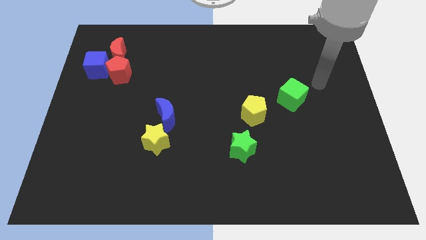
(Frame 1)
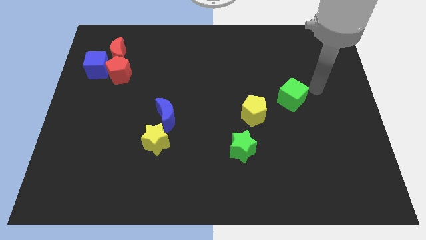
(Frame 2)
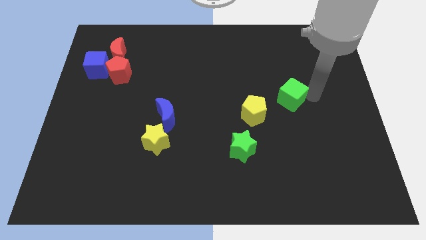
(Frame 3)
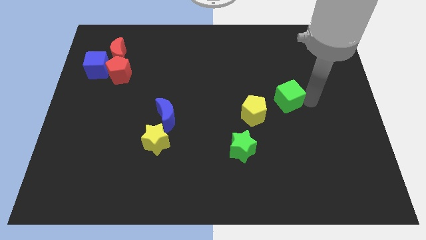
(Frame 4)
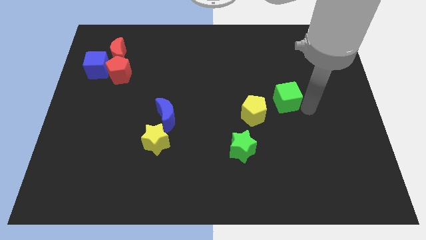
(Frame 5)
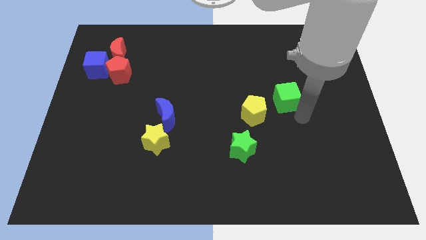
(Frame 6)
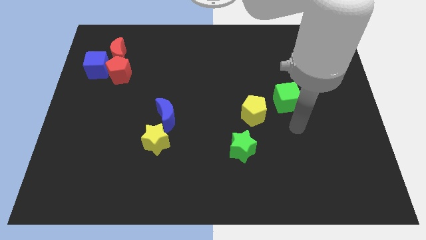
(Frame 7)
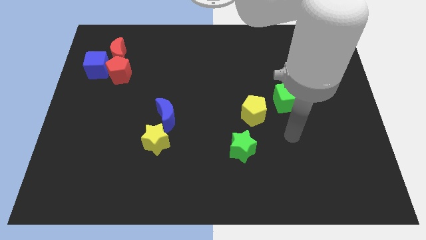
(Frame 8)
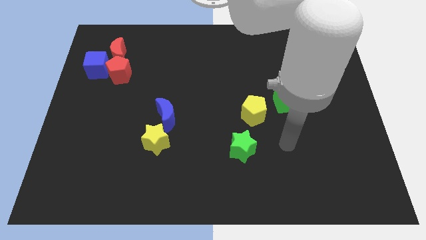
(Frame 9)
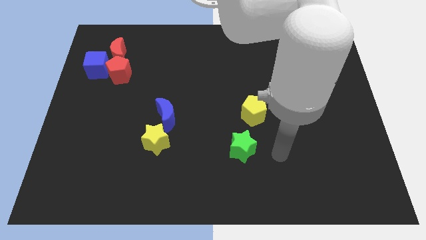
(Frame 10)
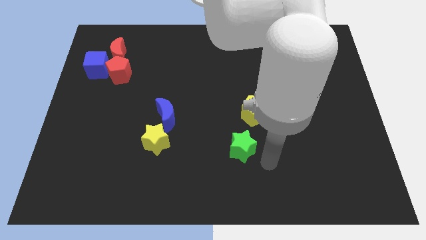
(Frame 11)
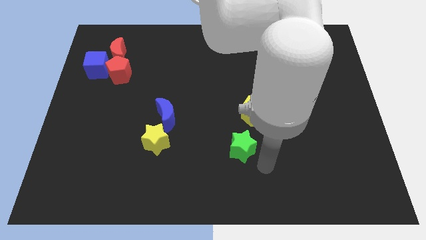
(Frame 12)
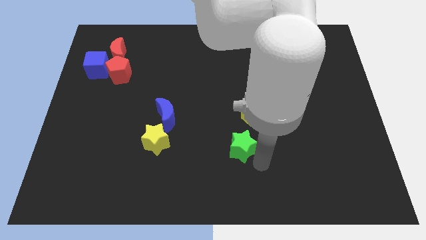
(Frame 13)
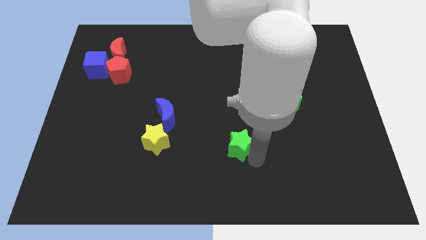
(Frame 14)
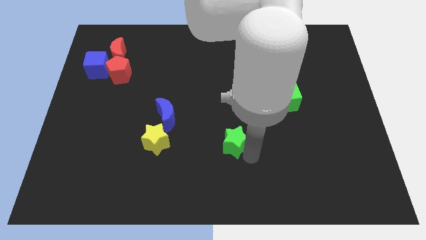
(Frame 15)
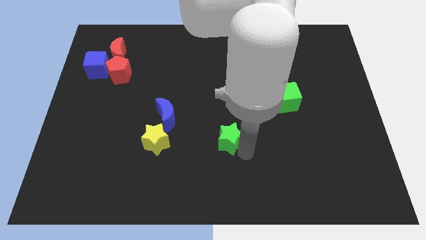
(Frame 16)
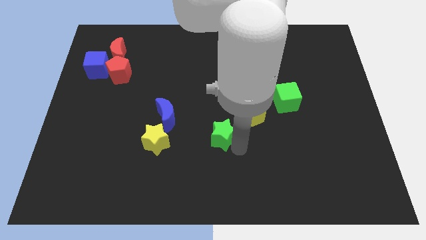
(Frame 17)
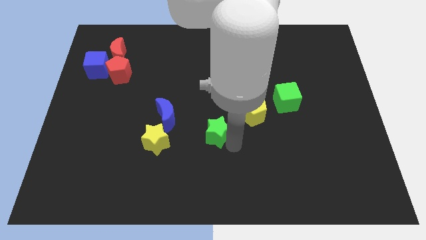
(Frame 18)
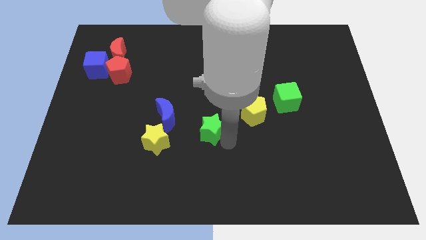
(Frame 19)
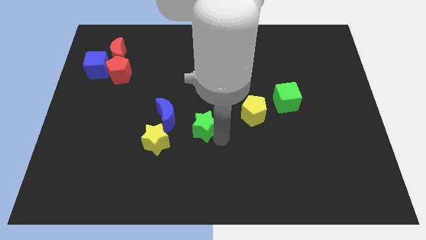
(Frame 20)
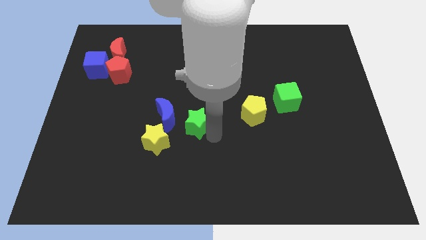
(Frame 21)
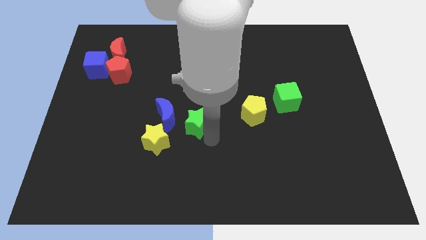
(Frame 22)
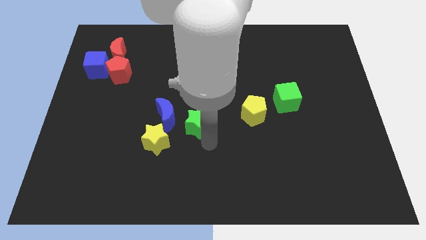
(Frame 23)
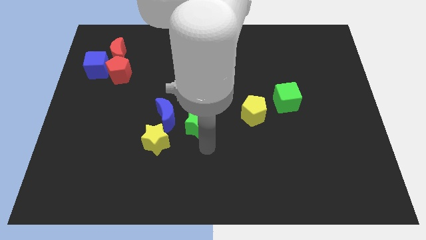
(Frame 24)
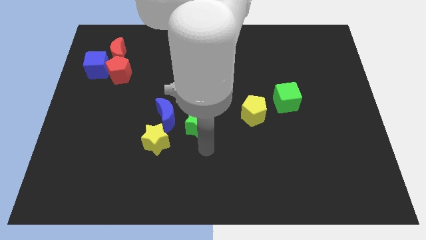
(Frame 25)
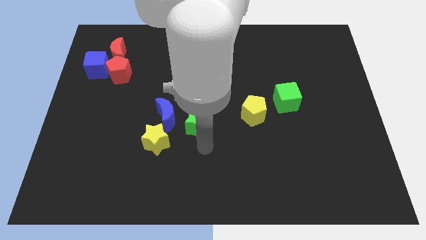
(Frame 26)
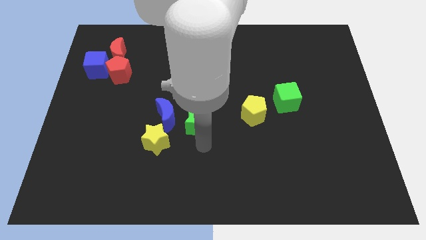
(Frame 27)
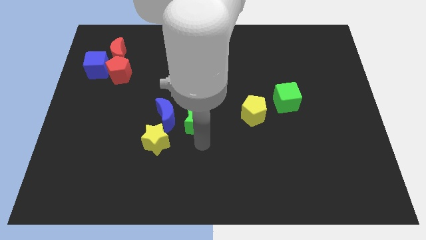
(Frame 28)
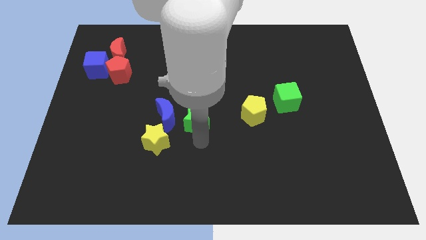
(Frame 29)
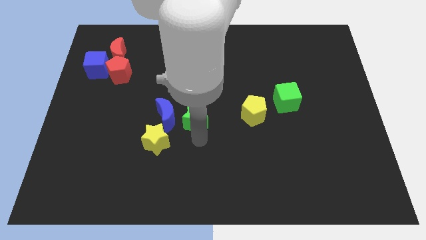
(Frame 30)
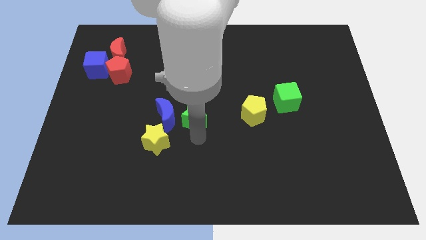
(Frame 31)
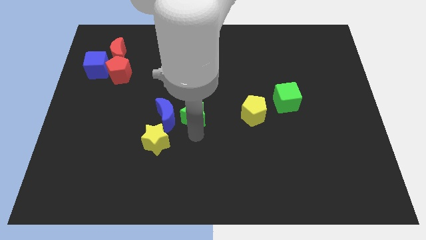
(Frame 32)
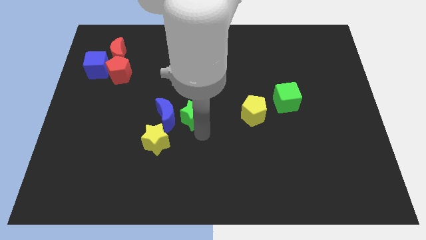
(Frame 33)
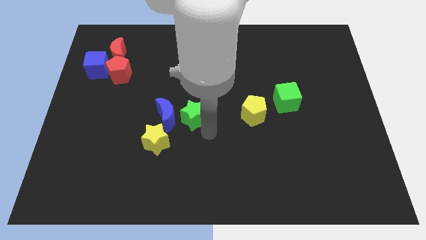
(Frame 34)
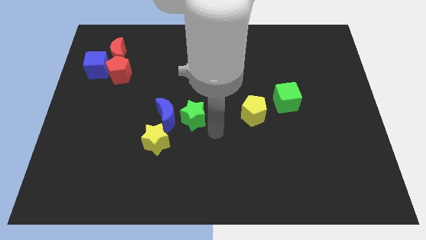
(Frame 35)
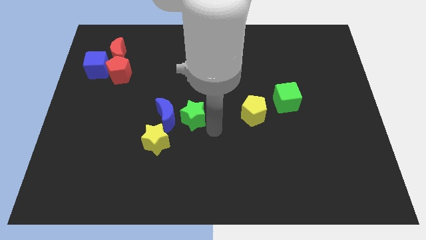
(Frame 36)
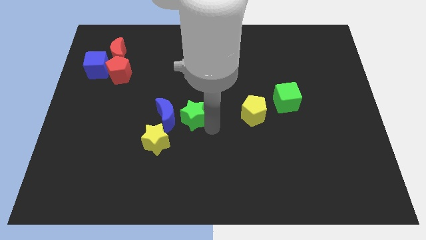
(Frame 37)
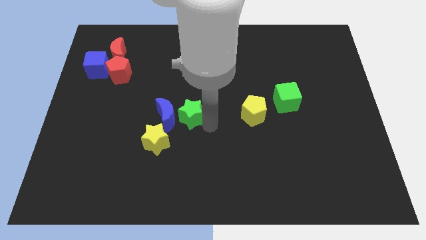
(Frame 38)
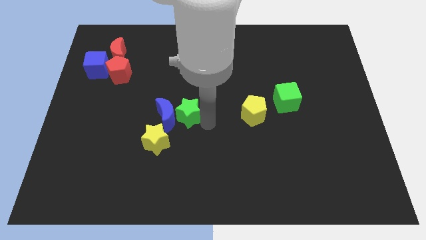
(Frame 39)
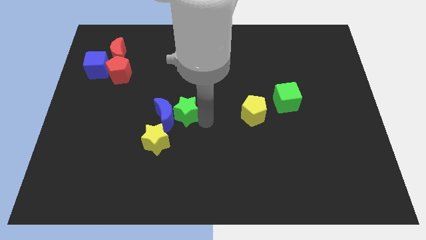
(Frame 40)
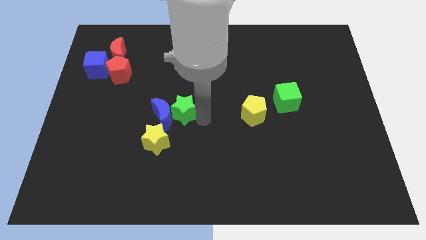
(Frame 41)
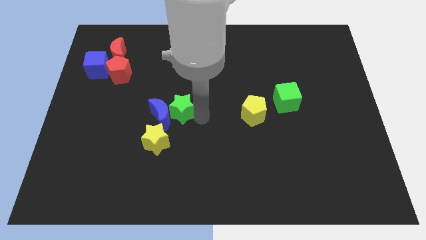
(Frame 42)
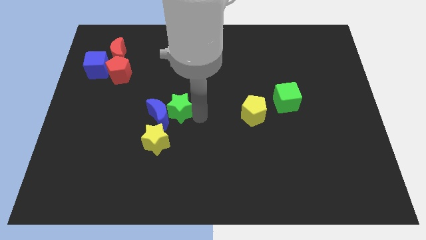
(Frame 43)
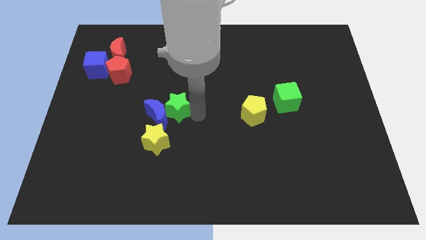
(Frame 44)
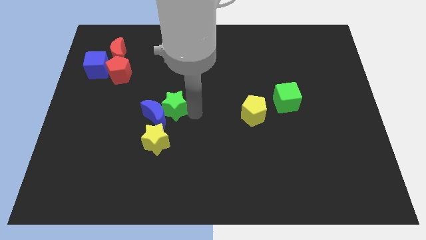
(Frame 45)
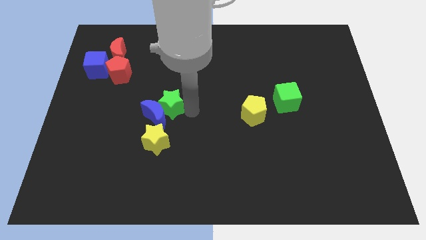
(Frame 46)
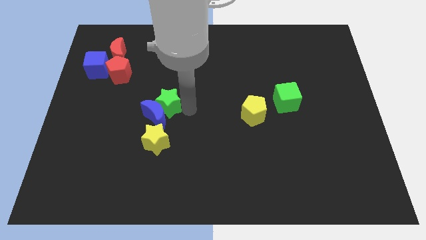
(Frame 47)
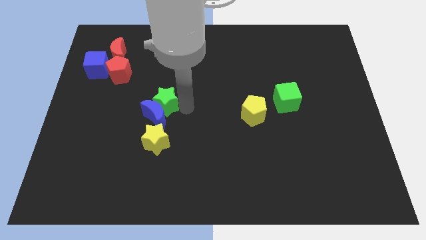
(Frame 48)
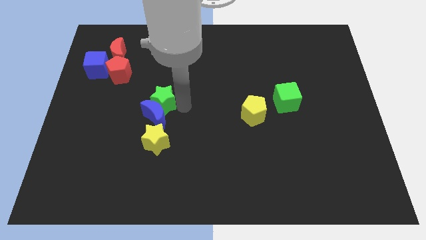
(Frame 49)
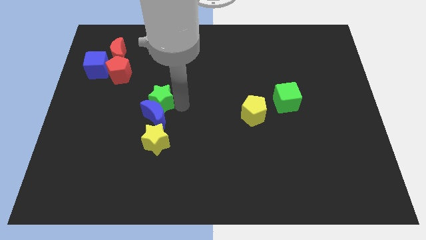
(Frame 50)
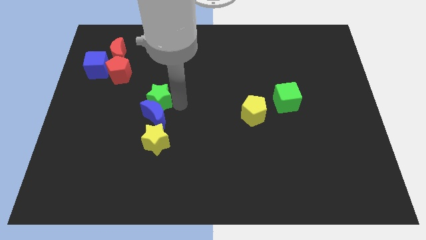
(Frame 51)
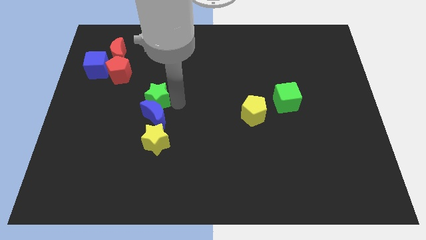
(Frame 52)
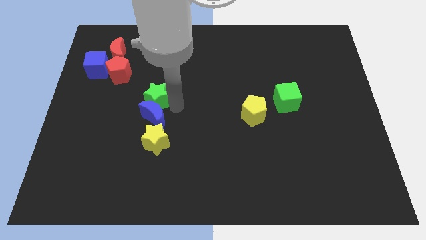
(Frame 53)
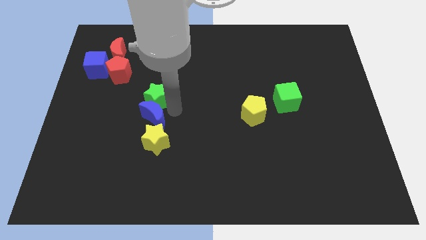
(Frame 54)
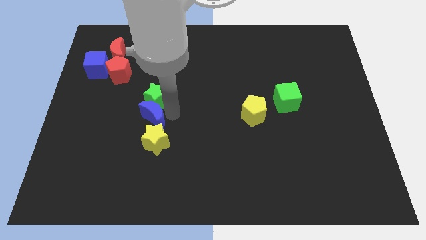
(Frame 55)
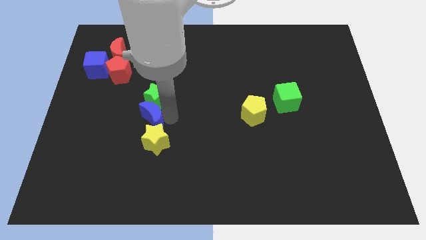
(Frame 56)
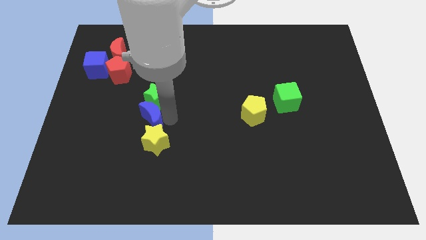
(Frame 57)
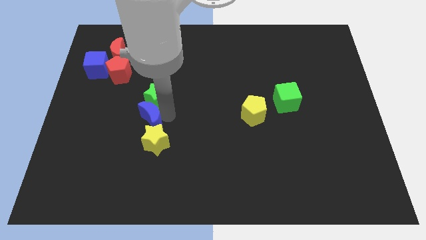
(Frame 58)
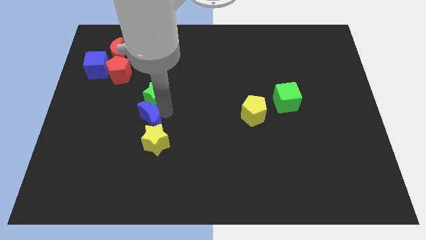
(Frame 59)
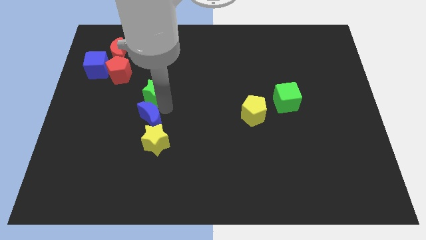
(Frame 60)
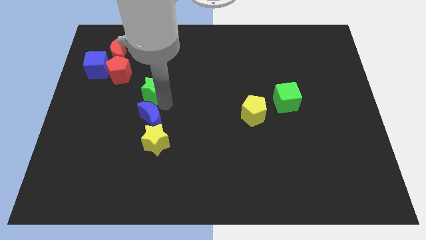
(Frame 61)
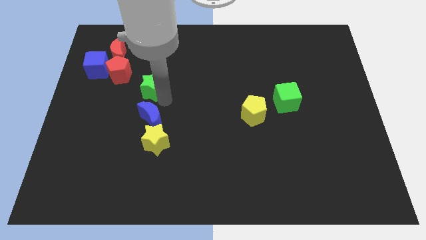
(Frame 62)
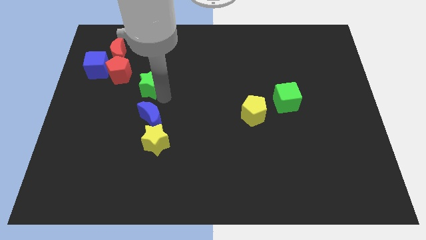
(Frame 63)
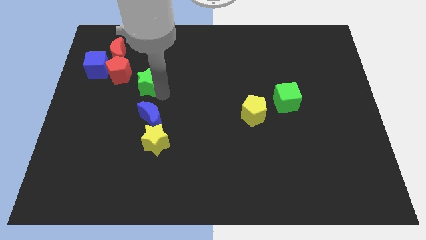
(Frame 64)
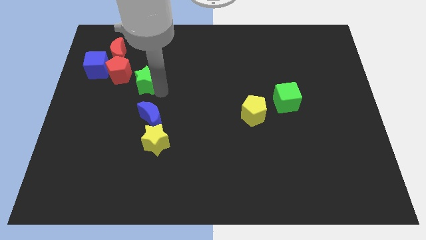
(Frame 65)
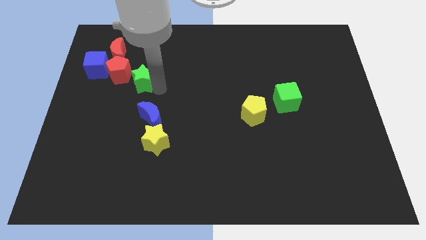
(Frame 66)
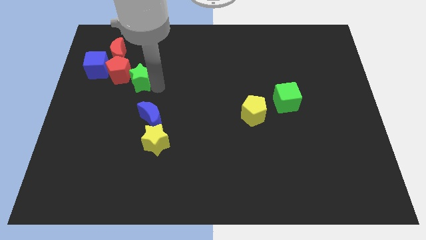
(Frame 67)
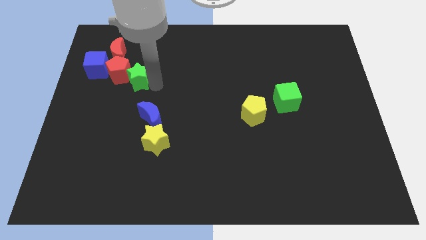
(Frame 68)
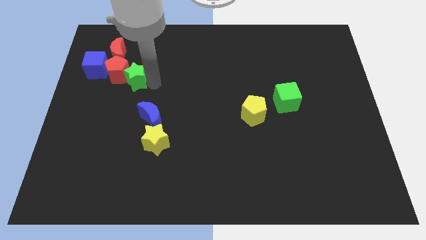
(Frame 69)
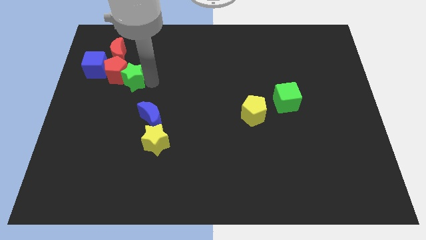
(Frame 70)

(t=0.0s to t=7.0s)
push the green star diagonally down and to the right of the blue cube

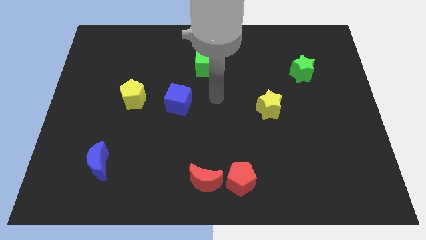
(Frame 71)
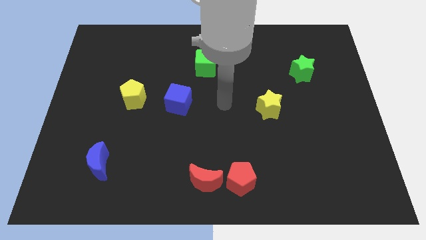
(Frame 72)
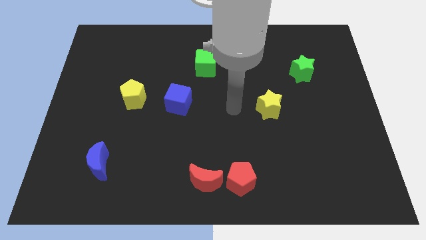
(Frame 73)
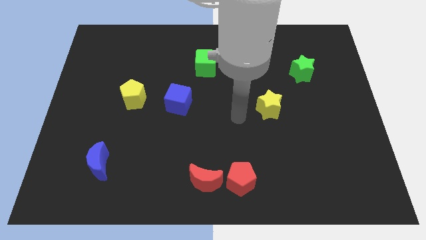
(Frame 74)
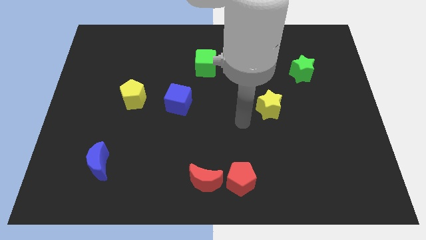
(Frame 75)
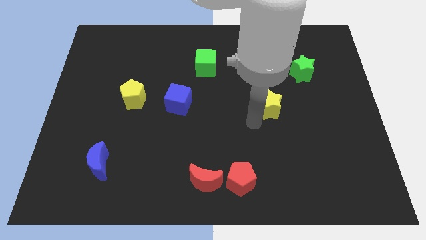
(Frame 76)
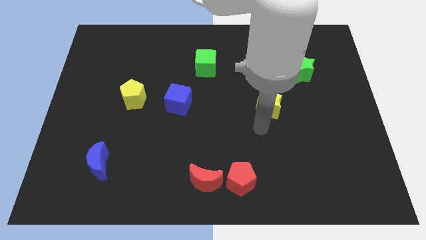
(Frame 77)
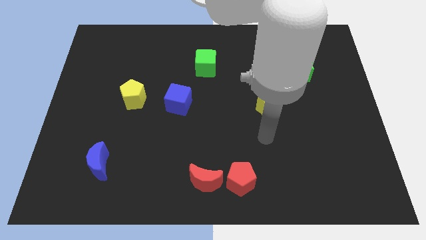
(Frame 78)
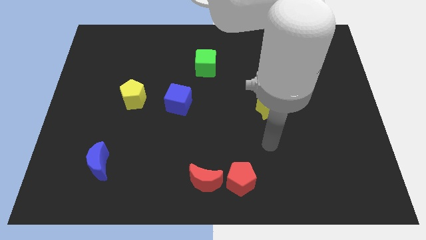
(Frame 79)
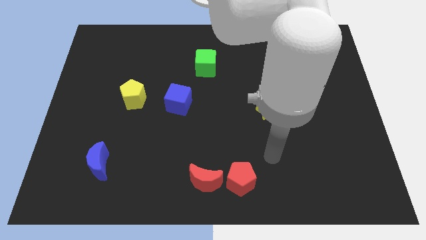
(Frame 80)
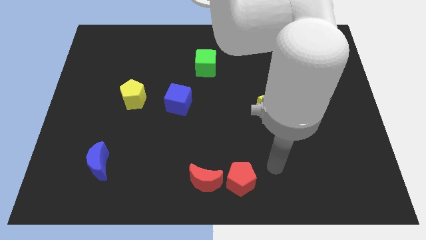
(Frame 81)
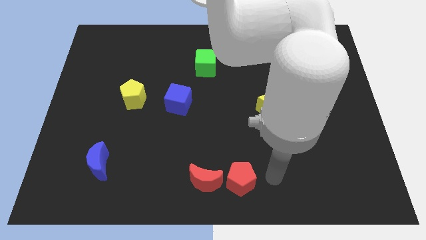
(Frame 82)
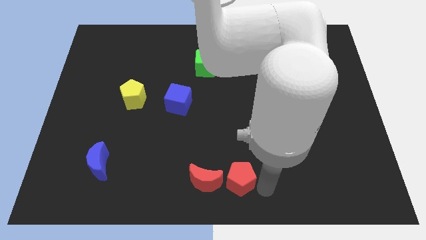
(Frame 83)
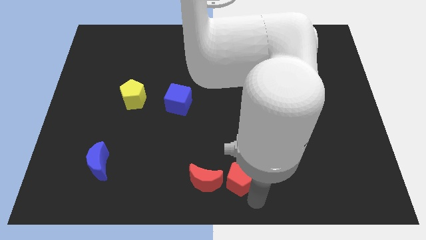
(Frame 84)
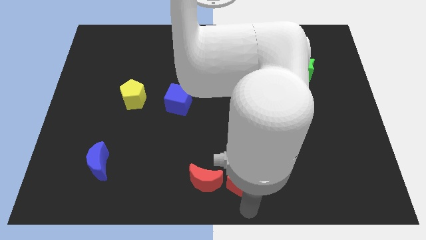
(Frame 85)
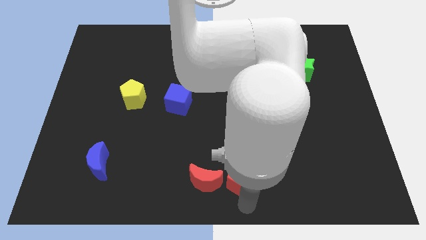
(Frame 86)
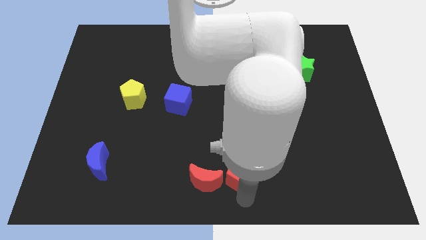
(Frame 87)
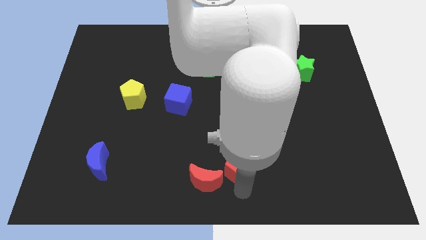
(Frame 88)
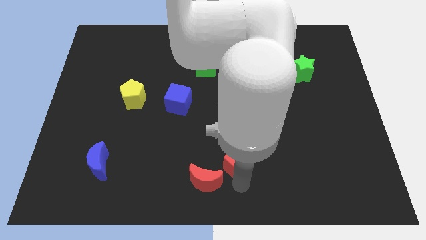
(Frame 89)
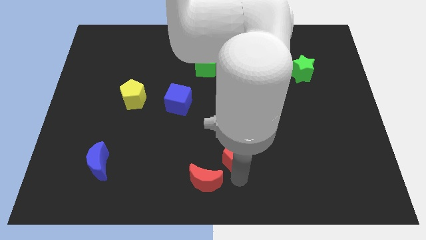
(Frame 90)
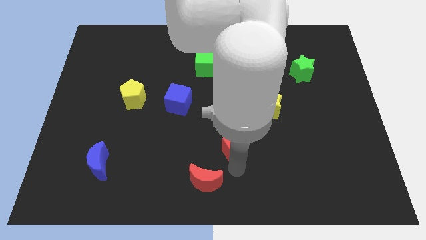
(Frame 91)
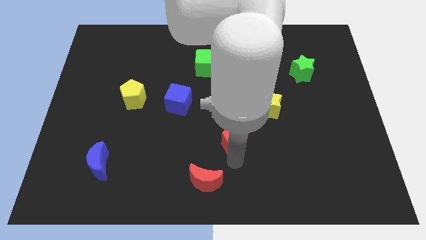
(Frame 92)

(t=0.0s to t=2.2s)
push the red pentagon diagonally down and to the left of the yellow star
